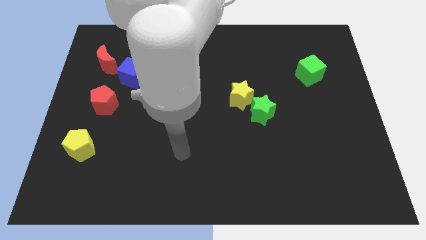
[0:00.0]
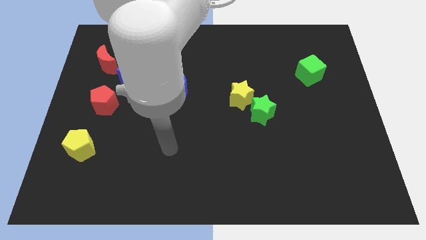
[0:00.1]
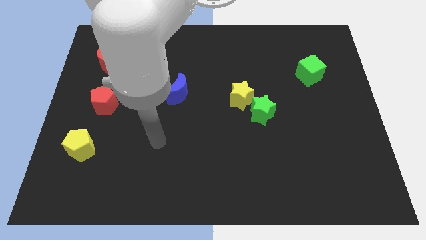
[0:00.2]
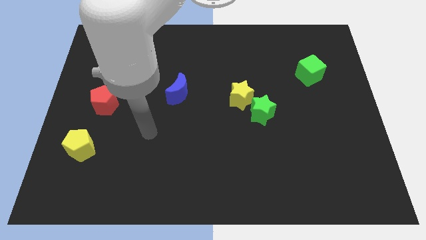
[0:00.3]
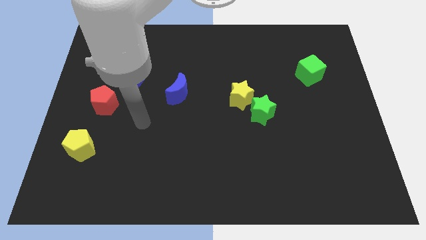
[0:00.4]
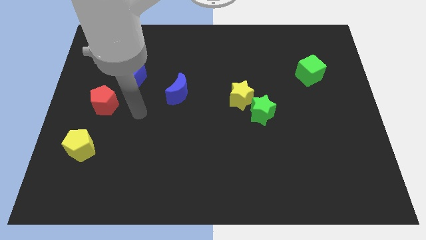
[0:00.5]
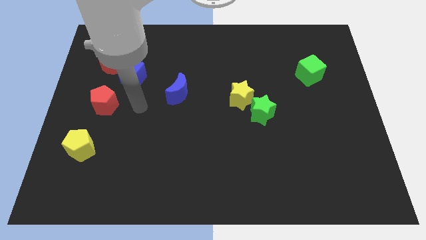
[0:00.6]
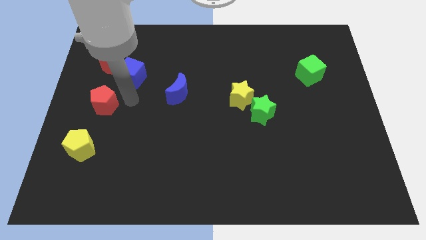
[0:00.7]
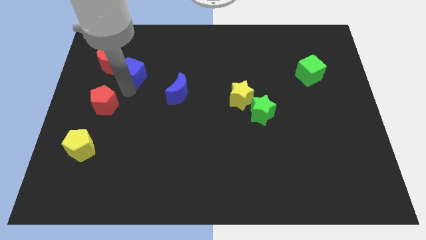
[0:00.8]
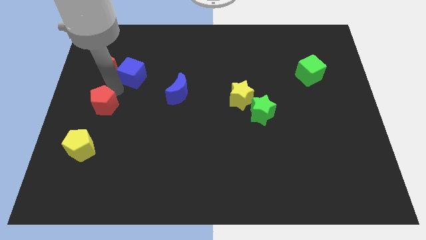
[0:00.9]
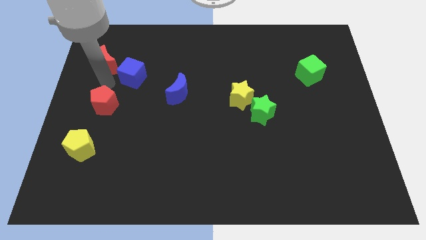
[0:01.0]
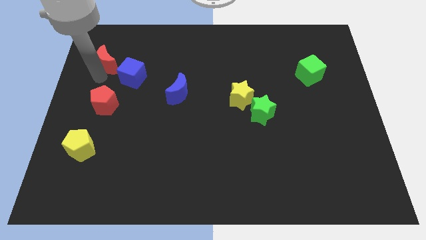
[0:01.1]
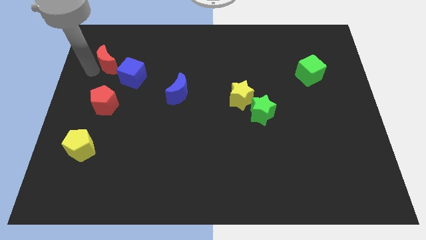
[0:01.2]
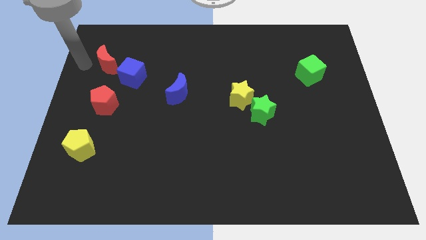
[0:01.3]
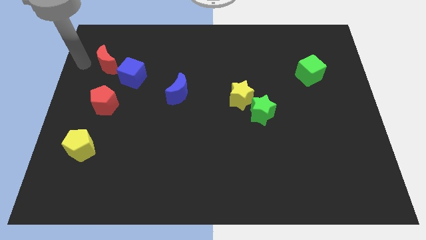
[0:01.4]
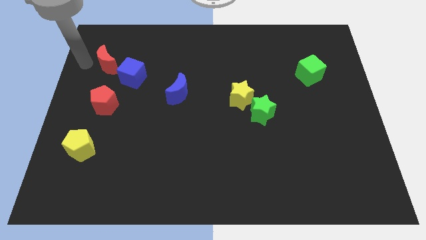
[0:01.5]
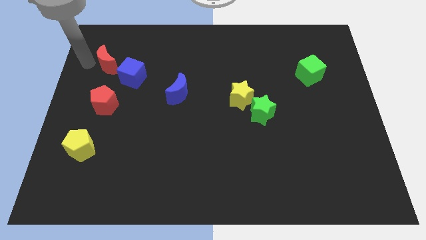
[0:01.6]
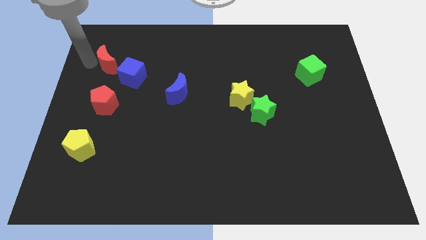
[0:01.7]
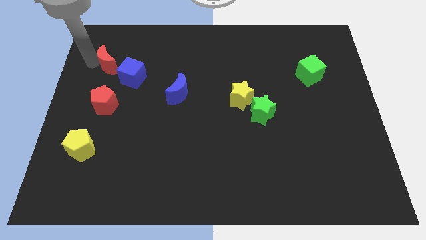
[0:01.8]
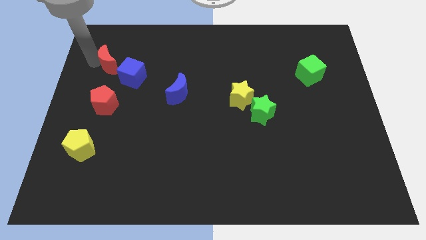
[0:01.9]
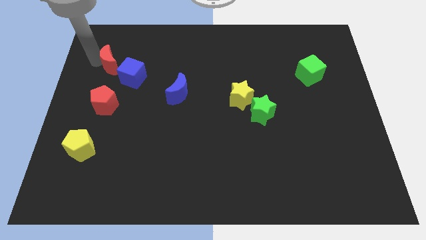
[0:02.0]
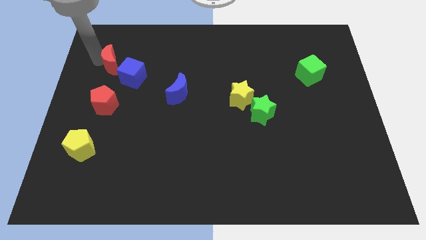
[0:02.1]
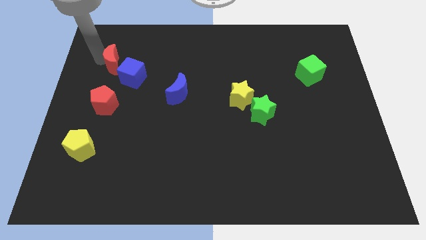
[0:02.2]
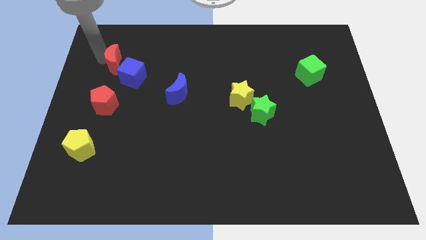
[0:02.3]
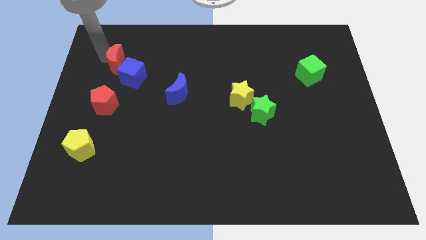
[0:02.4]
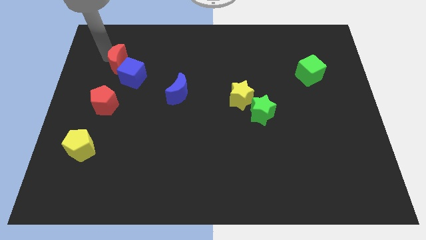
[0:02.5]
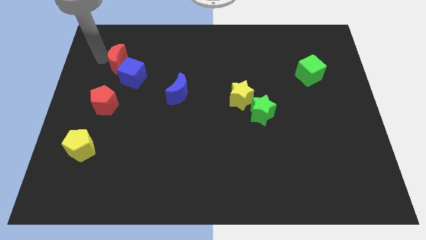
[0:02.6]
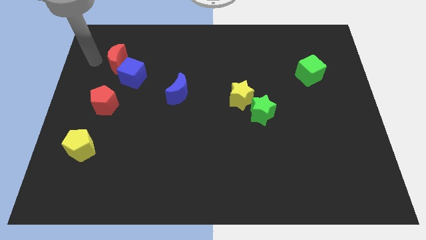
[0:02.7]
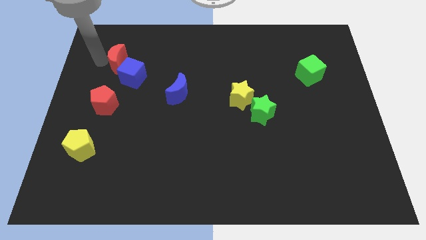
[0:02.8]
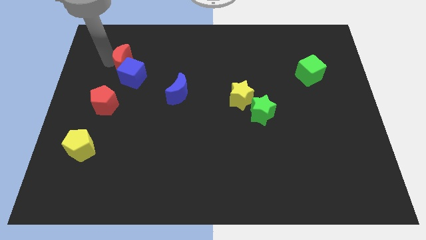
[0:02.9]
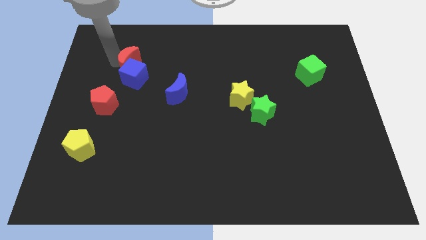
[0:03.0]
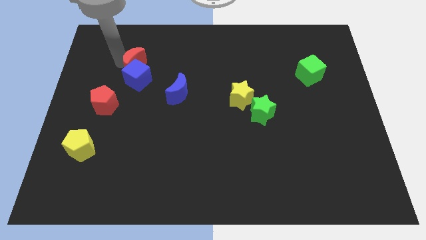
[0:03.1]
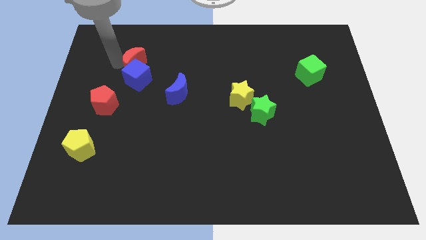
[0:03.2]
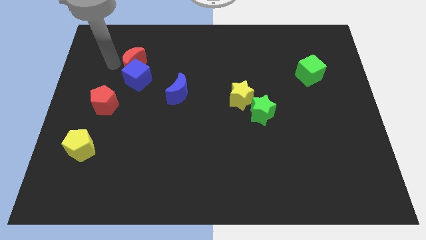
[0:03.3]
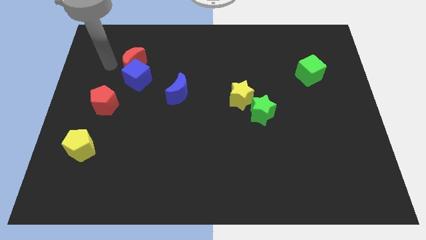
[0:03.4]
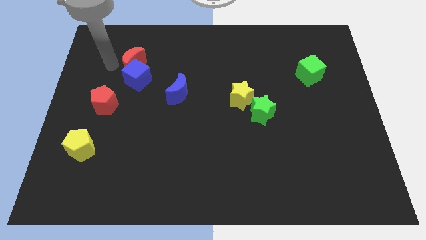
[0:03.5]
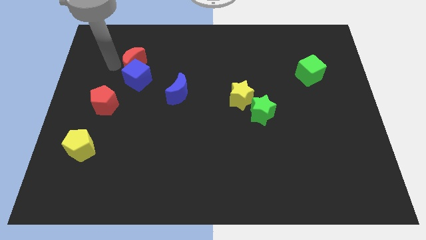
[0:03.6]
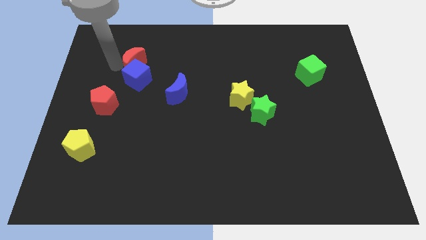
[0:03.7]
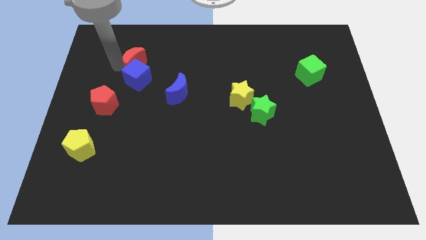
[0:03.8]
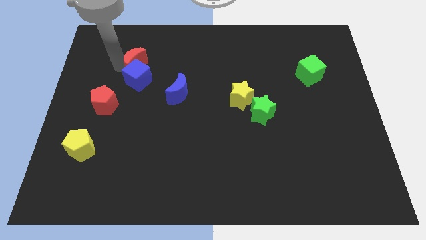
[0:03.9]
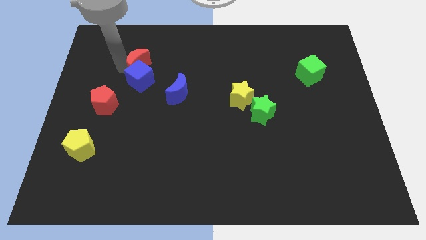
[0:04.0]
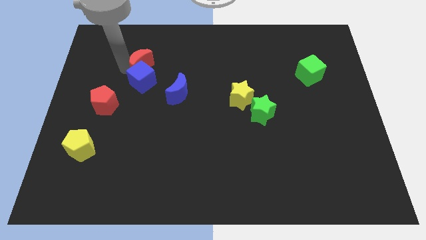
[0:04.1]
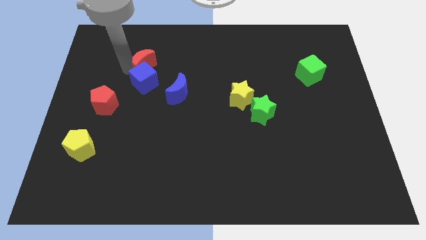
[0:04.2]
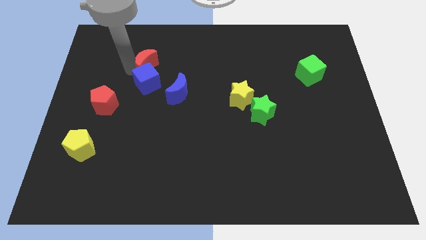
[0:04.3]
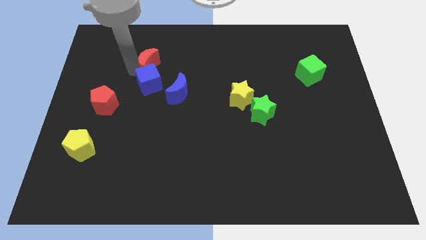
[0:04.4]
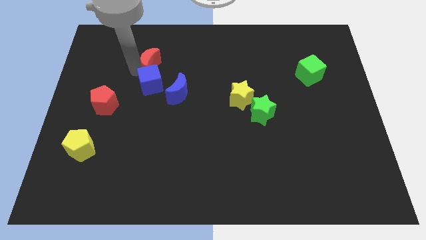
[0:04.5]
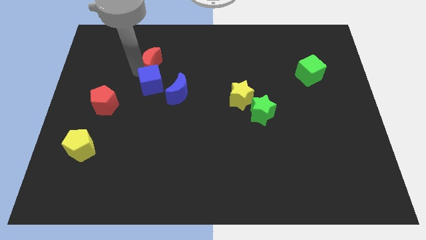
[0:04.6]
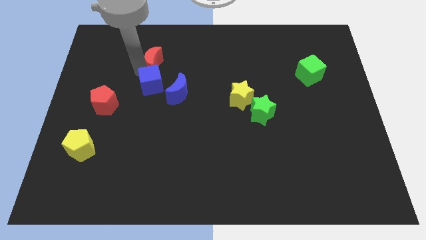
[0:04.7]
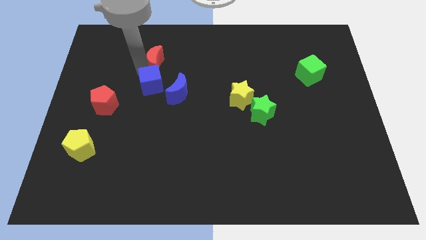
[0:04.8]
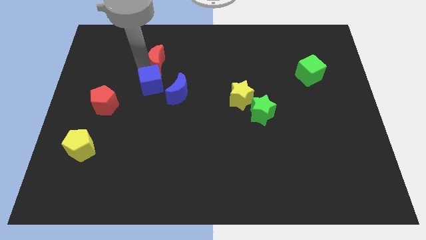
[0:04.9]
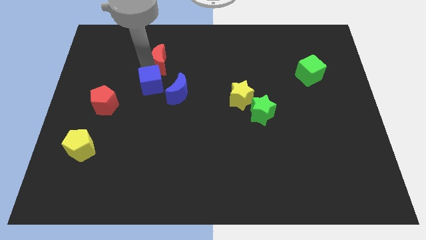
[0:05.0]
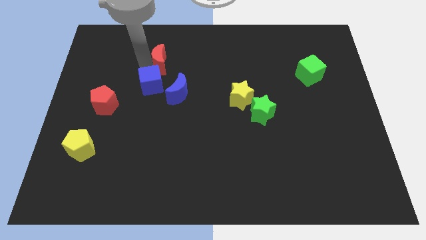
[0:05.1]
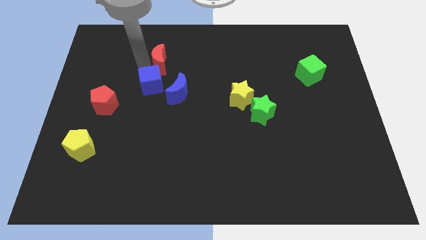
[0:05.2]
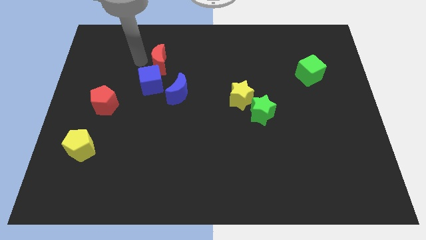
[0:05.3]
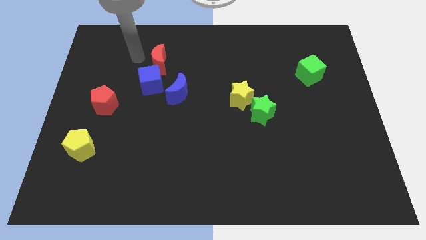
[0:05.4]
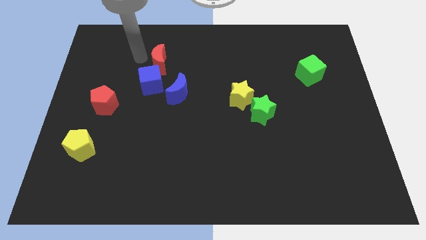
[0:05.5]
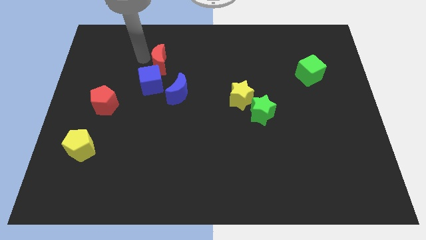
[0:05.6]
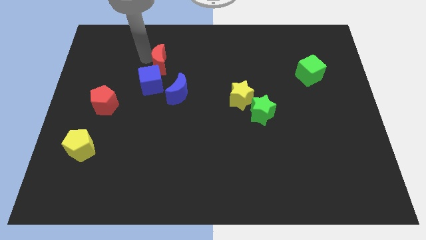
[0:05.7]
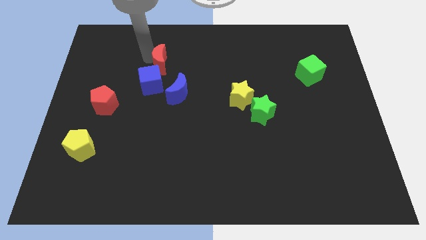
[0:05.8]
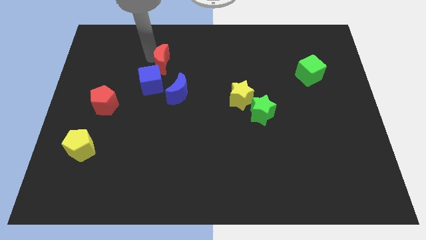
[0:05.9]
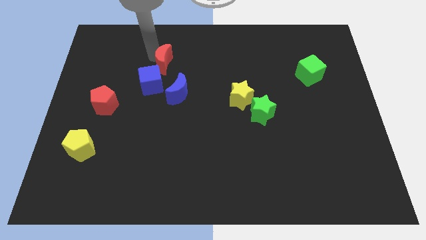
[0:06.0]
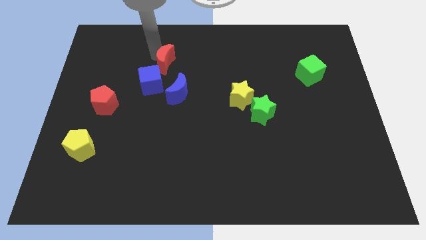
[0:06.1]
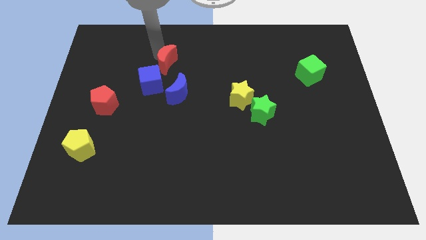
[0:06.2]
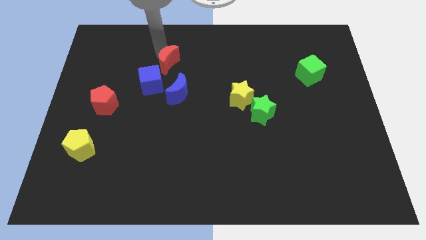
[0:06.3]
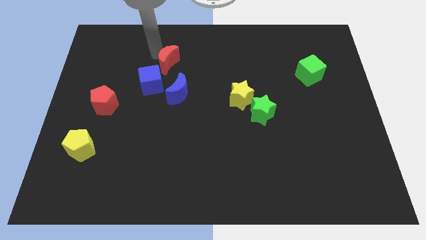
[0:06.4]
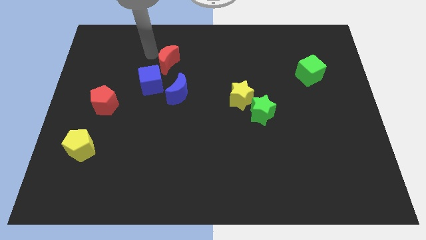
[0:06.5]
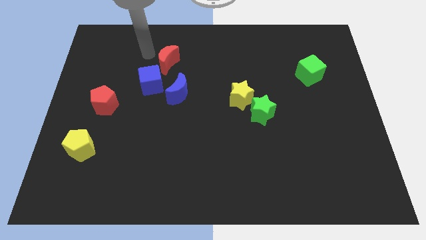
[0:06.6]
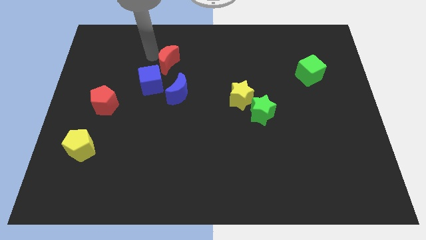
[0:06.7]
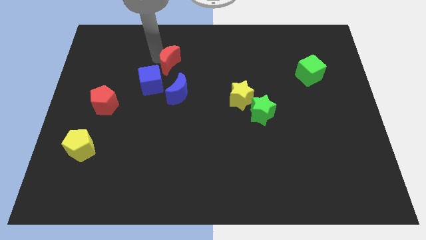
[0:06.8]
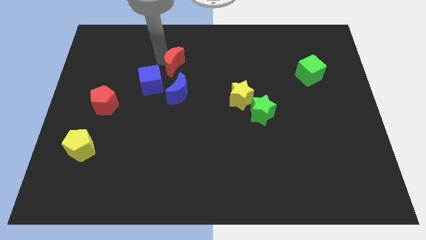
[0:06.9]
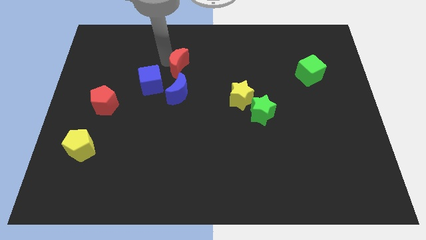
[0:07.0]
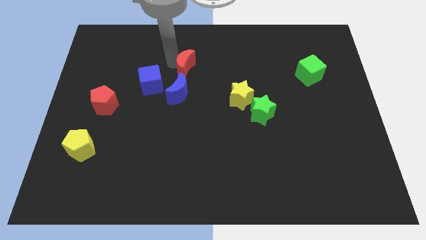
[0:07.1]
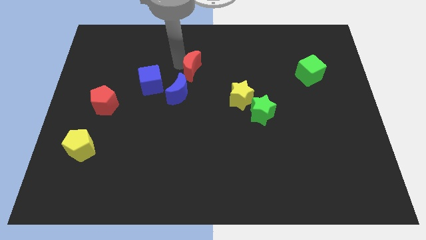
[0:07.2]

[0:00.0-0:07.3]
slide the red moon diagonally up and to the right of the blue moon
